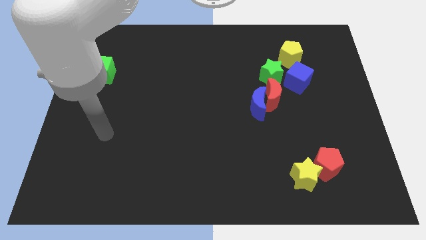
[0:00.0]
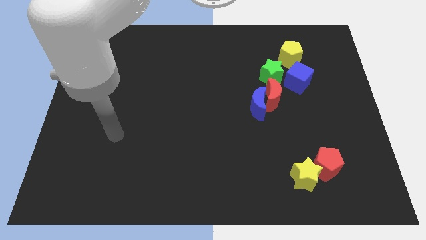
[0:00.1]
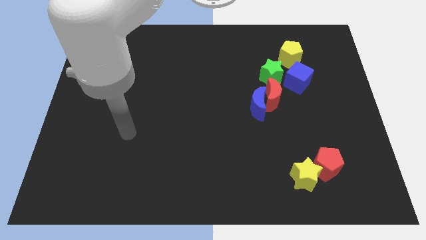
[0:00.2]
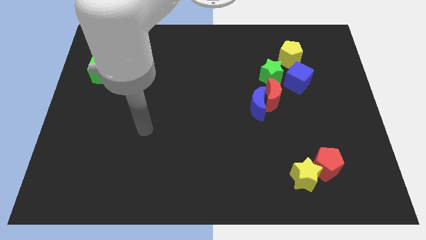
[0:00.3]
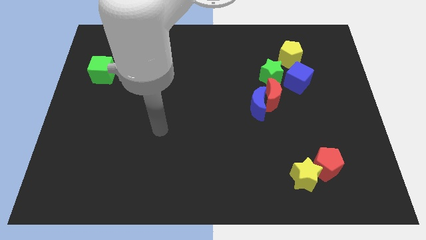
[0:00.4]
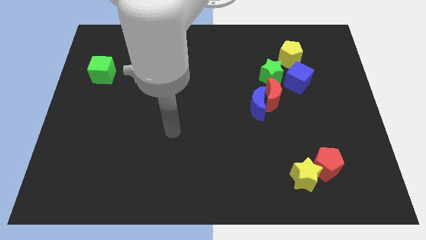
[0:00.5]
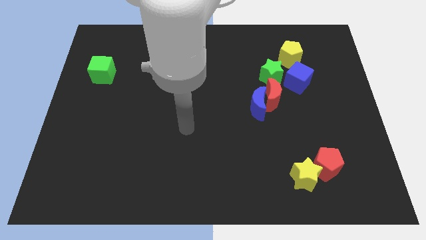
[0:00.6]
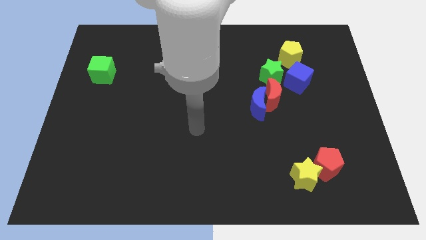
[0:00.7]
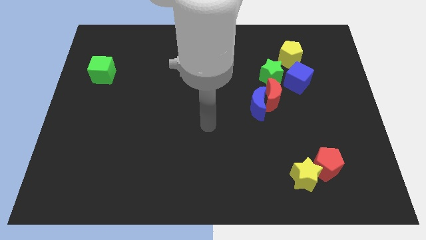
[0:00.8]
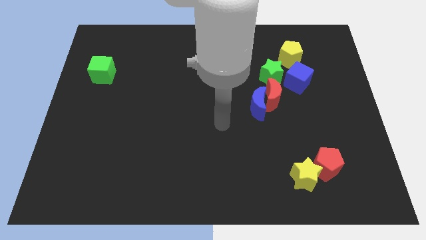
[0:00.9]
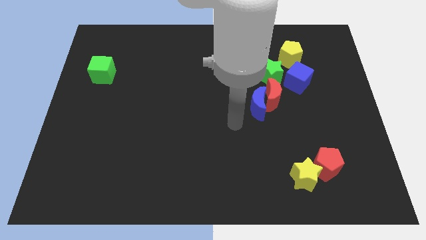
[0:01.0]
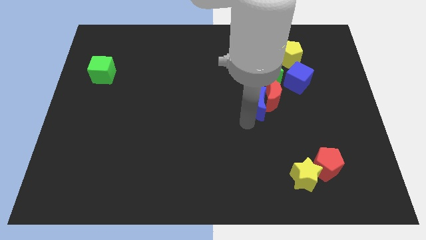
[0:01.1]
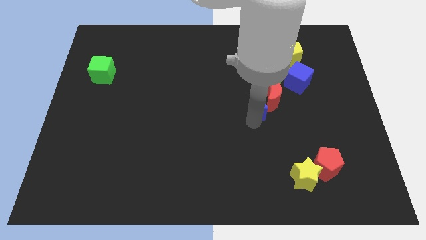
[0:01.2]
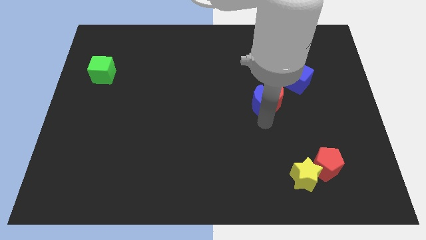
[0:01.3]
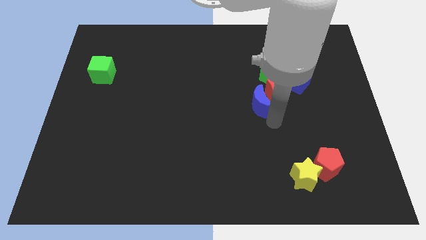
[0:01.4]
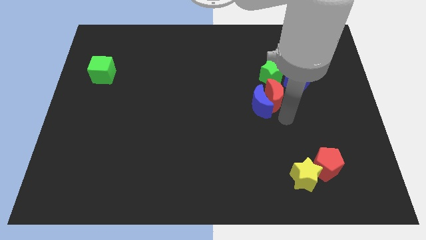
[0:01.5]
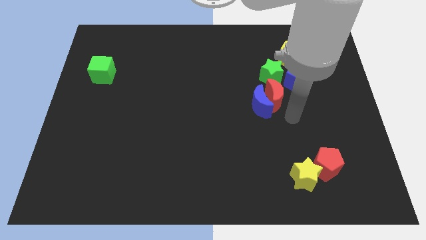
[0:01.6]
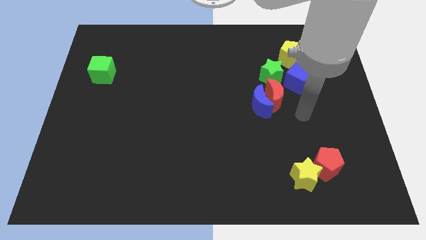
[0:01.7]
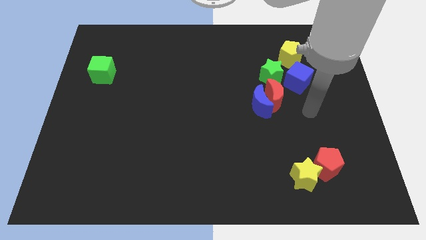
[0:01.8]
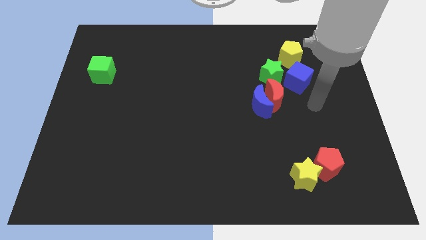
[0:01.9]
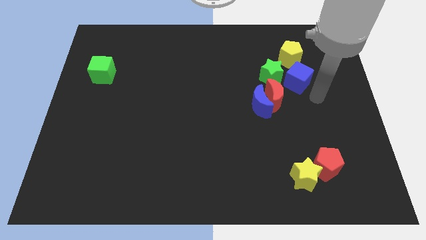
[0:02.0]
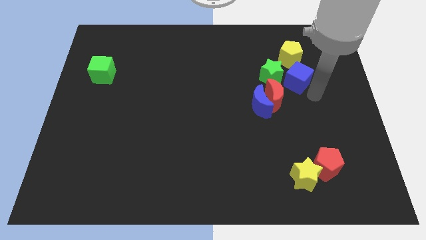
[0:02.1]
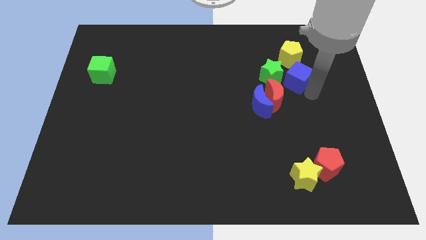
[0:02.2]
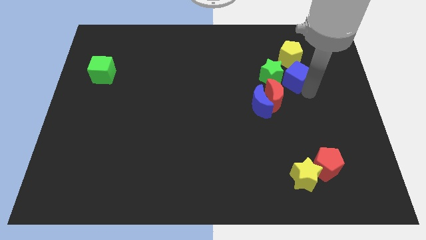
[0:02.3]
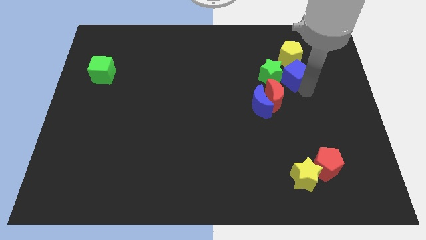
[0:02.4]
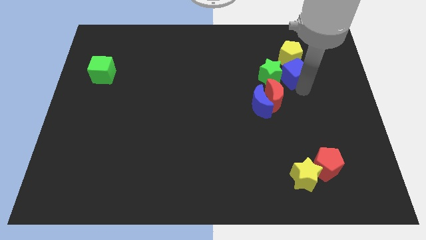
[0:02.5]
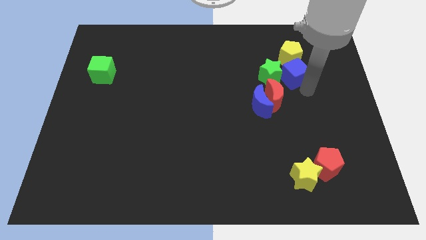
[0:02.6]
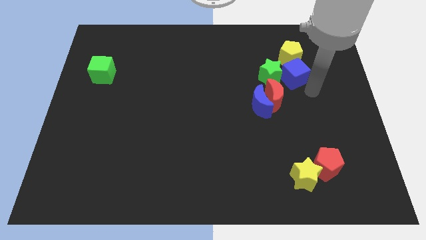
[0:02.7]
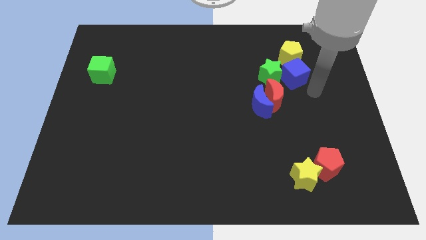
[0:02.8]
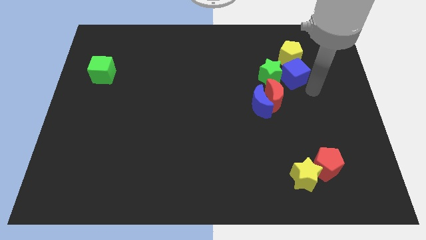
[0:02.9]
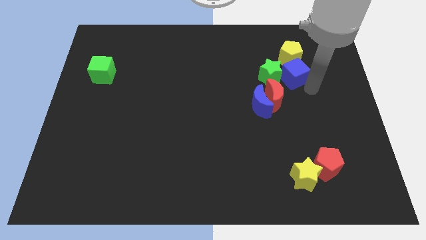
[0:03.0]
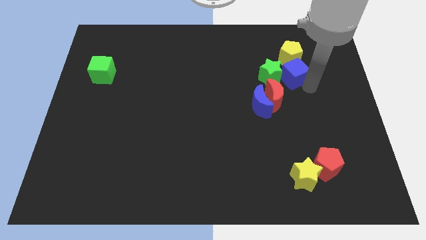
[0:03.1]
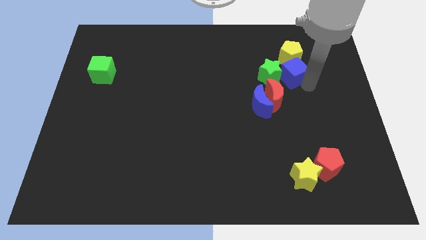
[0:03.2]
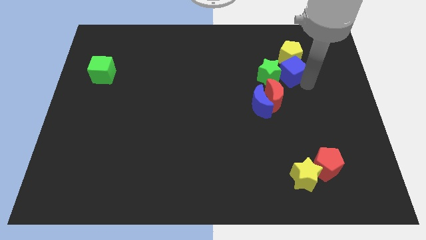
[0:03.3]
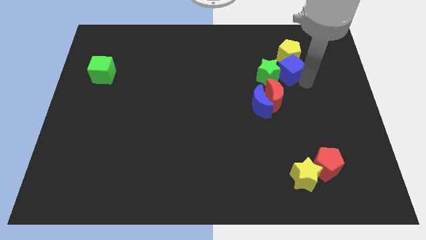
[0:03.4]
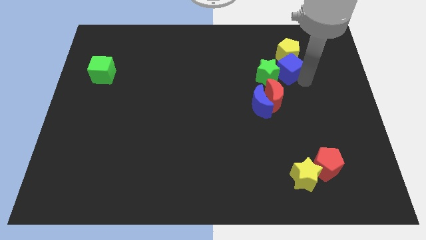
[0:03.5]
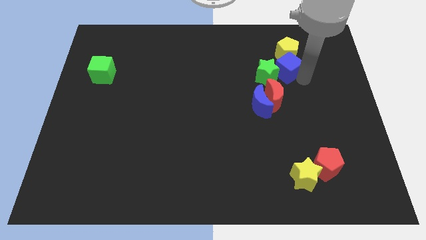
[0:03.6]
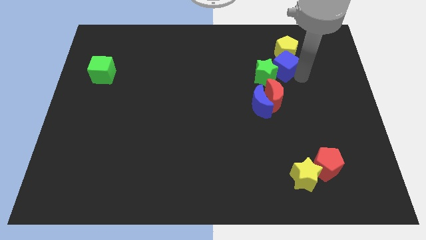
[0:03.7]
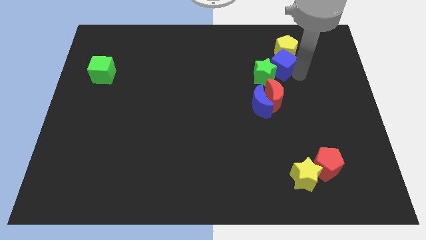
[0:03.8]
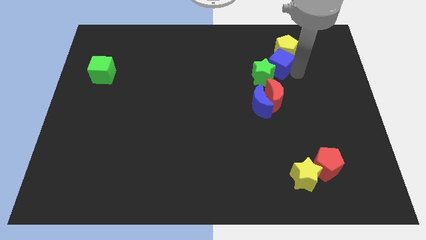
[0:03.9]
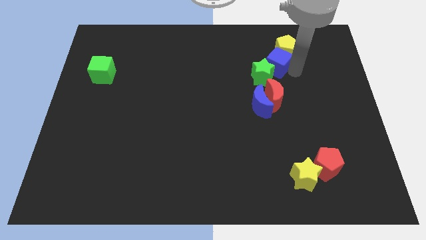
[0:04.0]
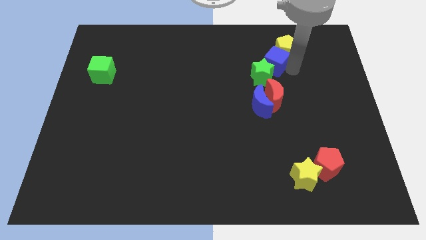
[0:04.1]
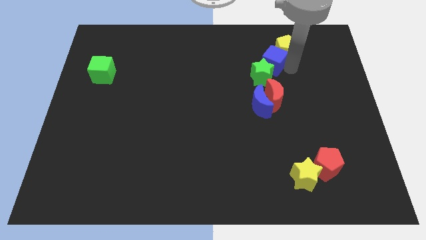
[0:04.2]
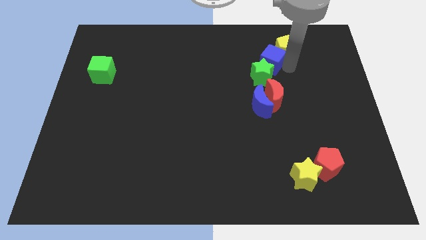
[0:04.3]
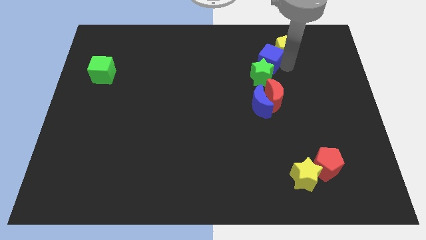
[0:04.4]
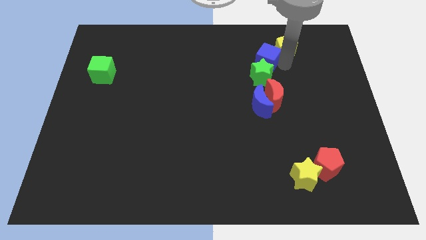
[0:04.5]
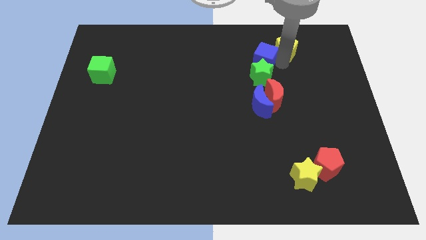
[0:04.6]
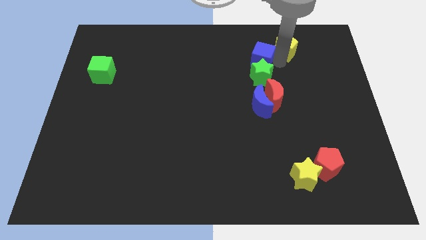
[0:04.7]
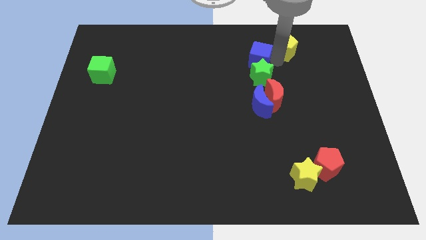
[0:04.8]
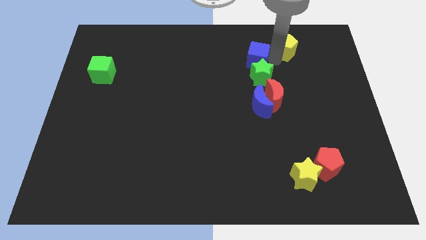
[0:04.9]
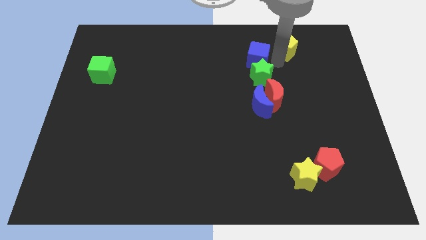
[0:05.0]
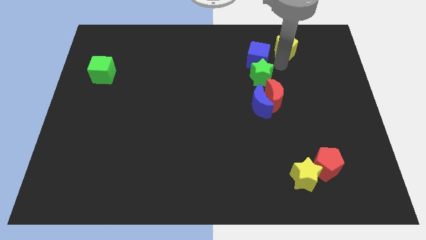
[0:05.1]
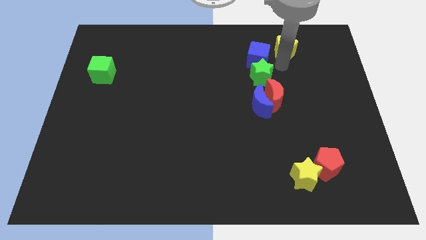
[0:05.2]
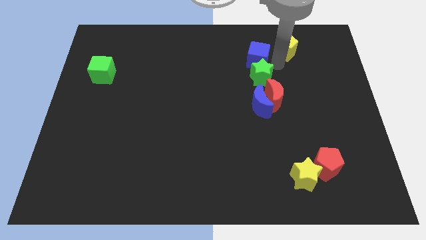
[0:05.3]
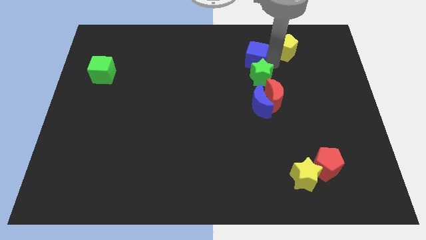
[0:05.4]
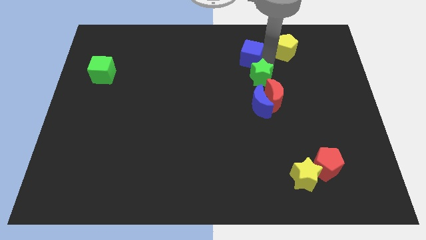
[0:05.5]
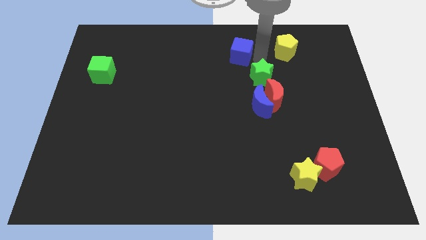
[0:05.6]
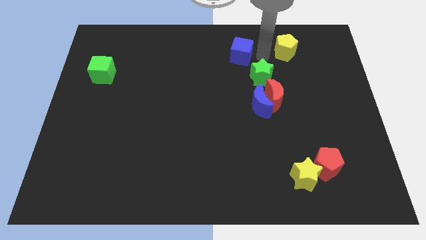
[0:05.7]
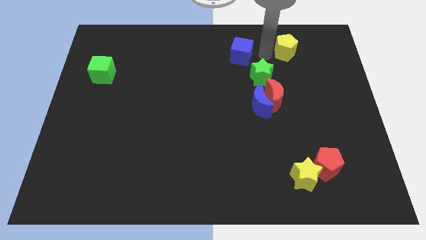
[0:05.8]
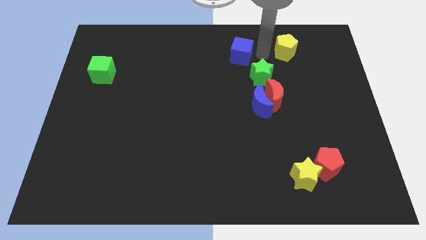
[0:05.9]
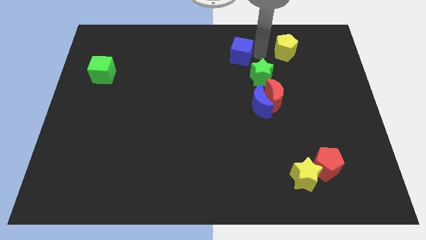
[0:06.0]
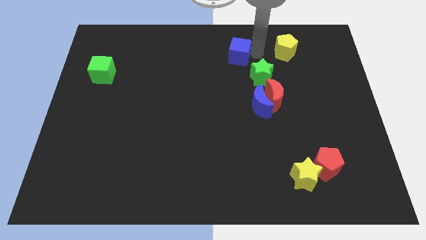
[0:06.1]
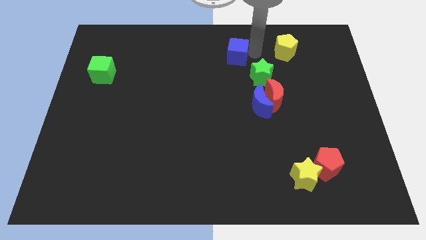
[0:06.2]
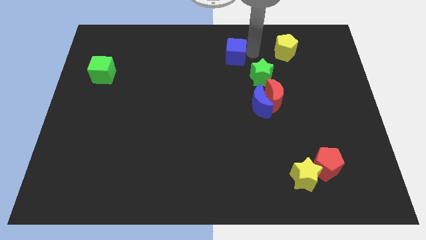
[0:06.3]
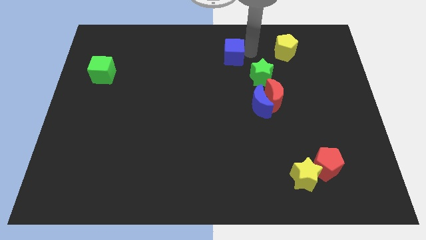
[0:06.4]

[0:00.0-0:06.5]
put the blue cube to the top side
